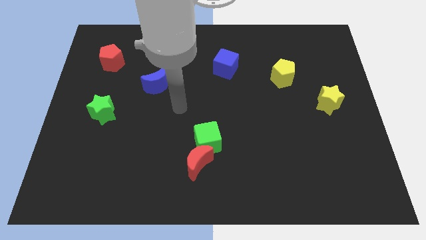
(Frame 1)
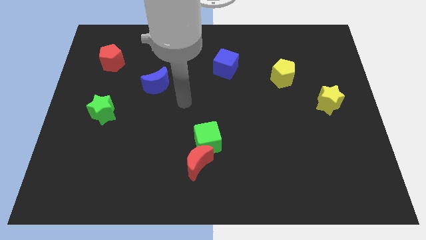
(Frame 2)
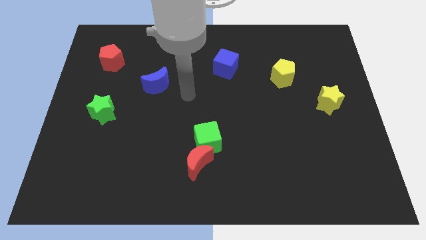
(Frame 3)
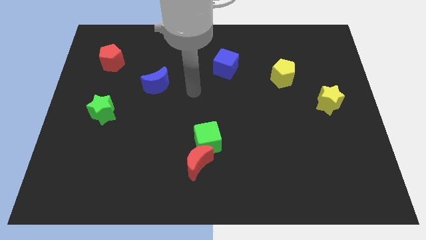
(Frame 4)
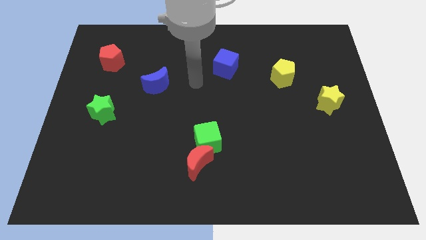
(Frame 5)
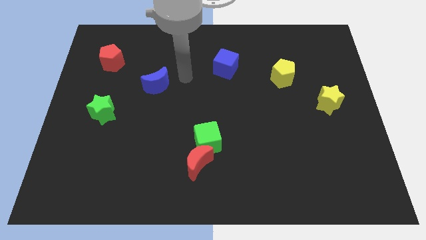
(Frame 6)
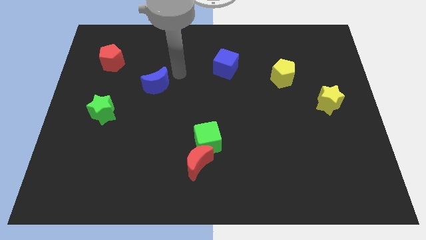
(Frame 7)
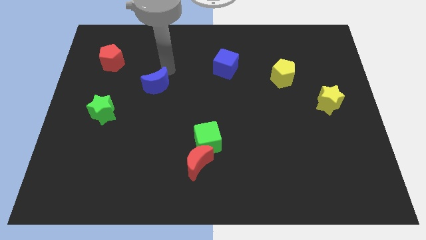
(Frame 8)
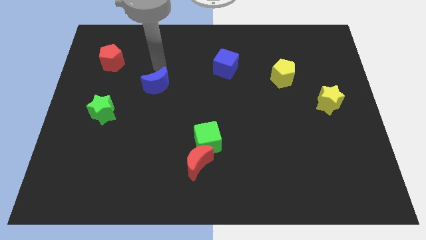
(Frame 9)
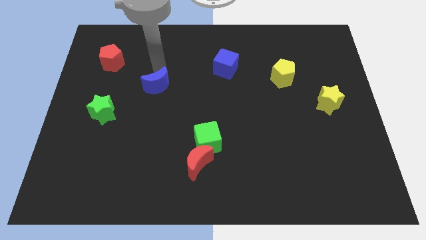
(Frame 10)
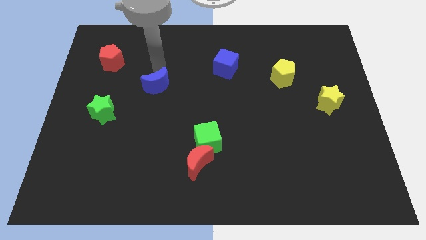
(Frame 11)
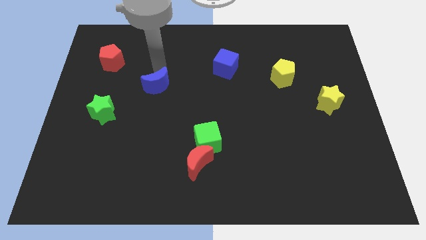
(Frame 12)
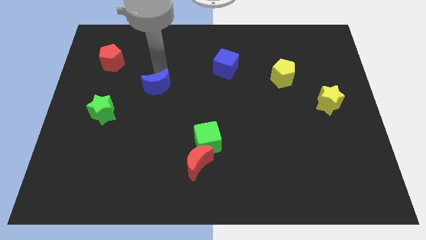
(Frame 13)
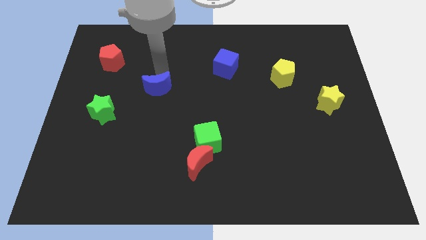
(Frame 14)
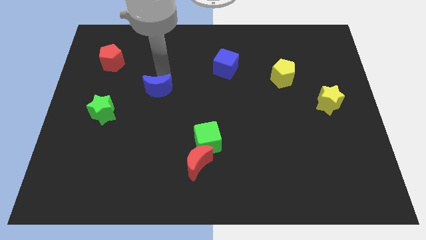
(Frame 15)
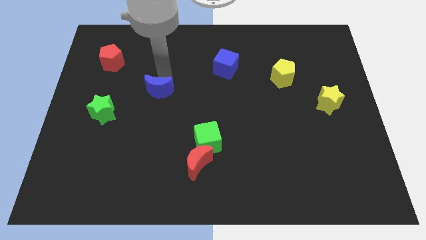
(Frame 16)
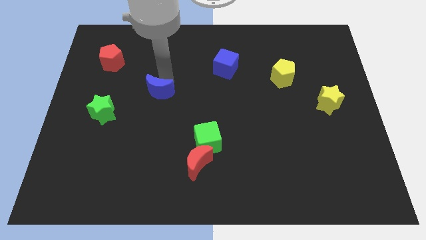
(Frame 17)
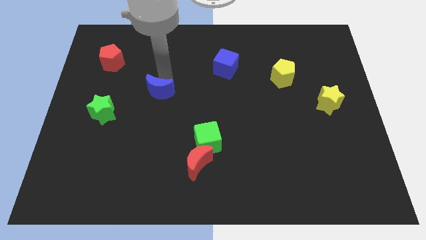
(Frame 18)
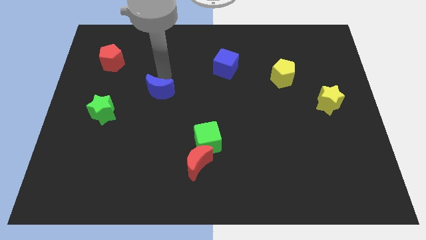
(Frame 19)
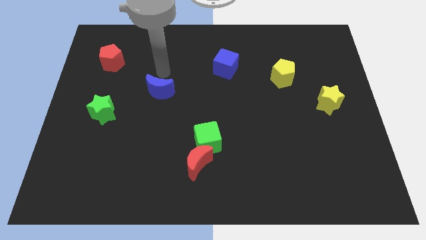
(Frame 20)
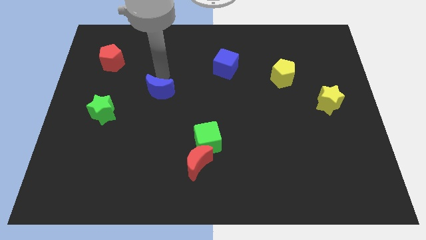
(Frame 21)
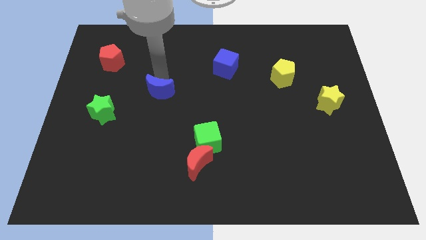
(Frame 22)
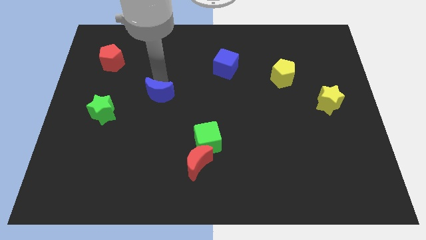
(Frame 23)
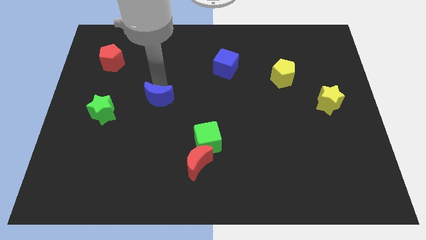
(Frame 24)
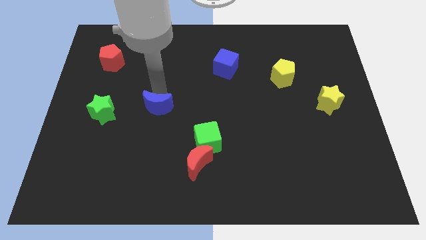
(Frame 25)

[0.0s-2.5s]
slightly move the blue moon down

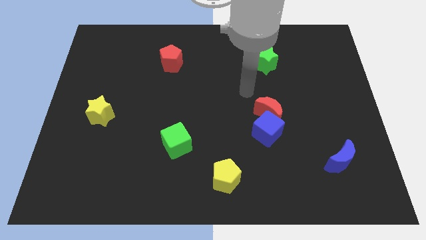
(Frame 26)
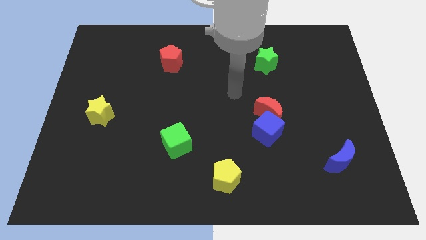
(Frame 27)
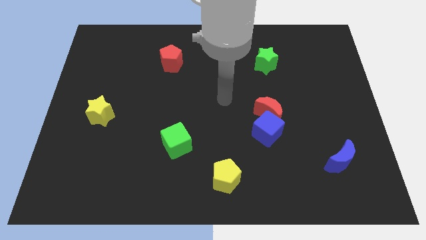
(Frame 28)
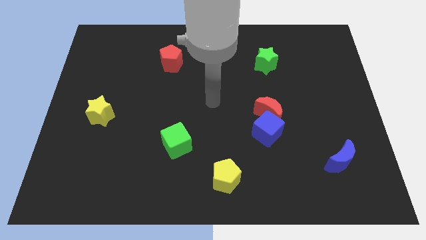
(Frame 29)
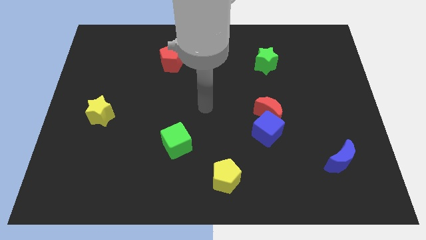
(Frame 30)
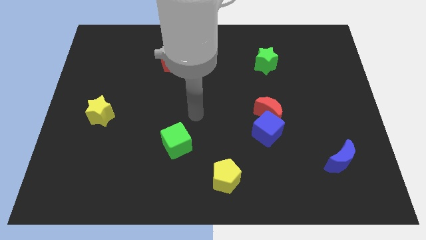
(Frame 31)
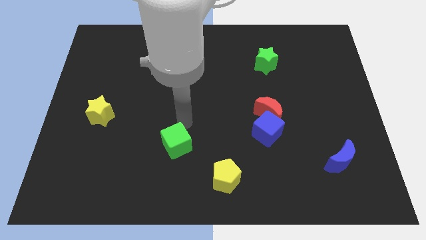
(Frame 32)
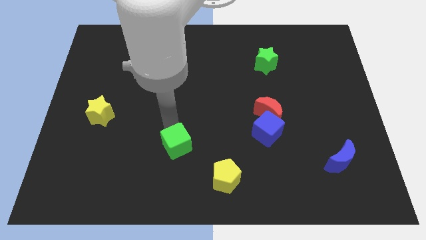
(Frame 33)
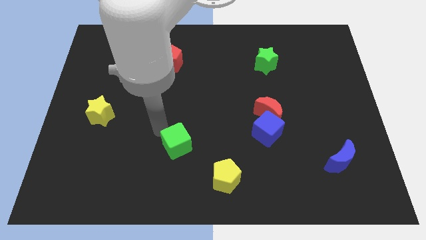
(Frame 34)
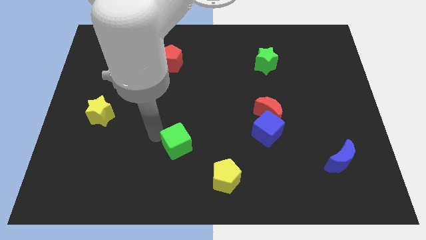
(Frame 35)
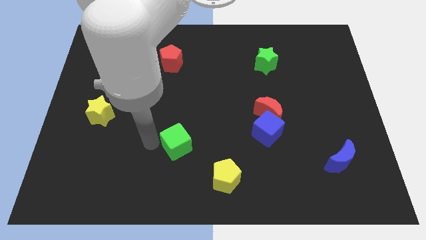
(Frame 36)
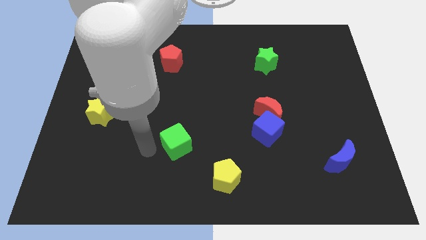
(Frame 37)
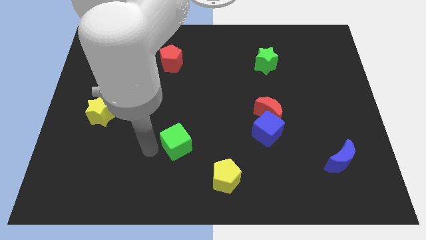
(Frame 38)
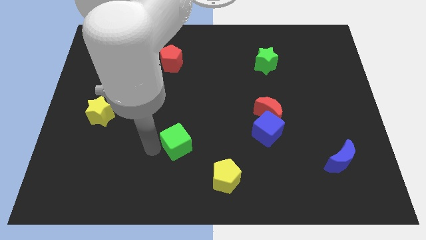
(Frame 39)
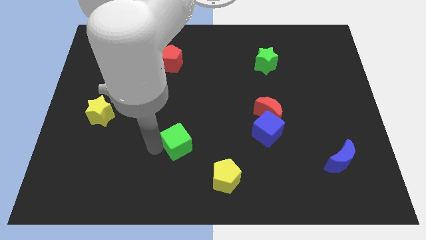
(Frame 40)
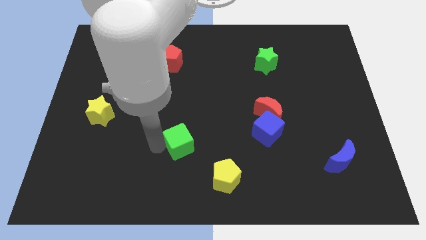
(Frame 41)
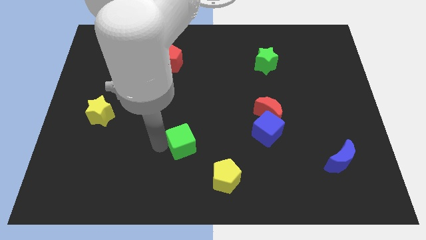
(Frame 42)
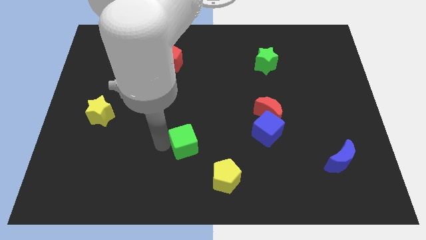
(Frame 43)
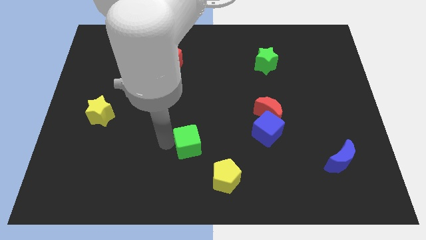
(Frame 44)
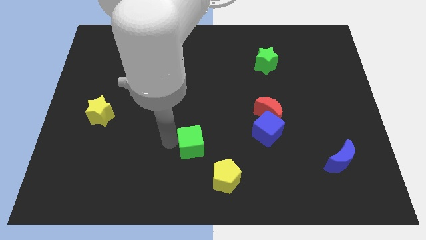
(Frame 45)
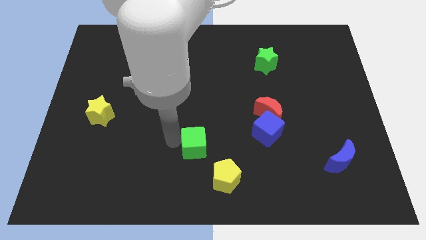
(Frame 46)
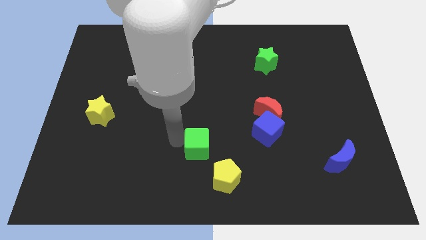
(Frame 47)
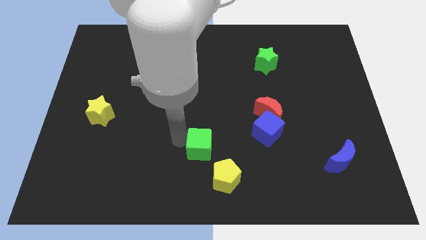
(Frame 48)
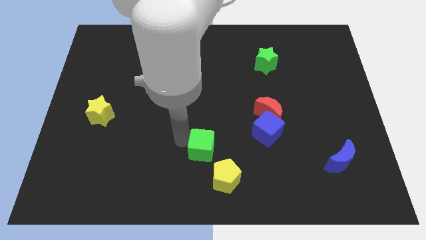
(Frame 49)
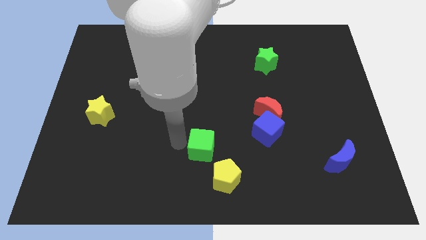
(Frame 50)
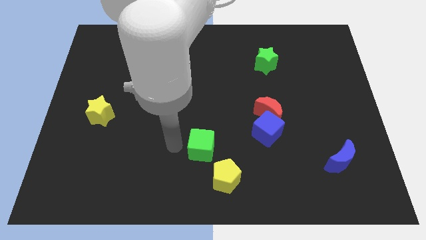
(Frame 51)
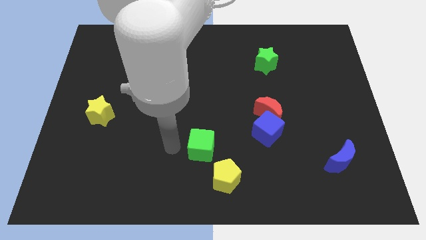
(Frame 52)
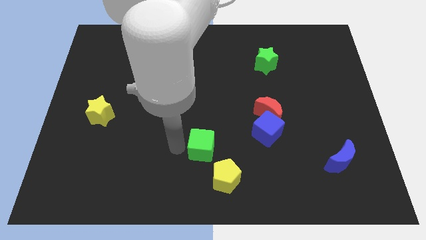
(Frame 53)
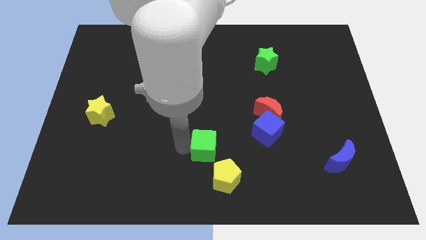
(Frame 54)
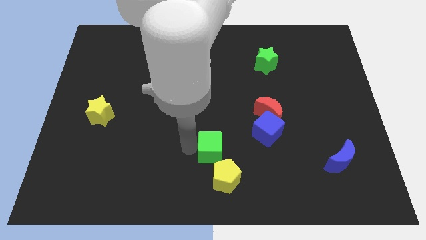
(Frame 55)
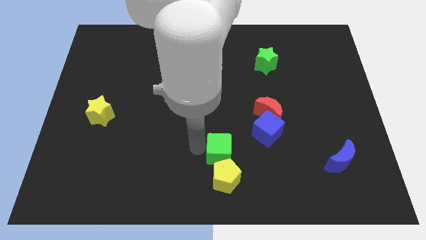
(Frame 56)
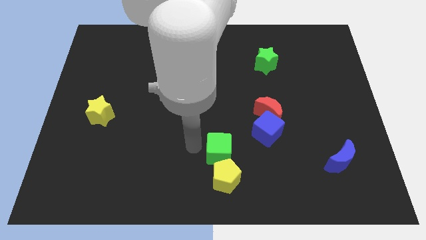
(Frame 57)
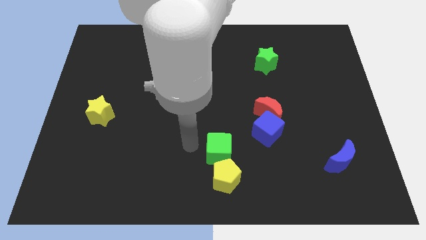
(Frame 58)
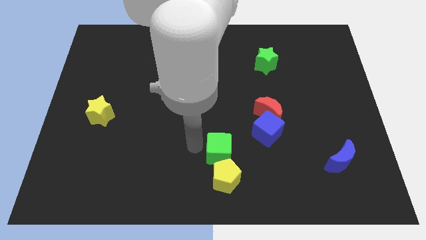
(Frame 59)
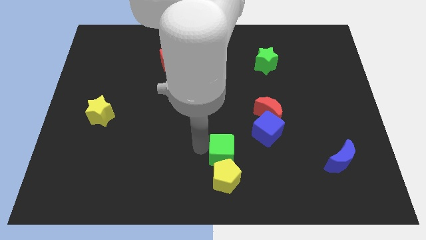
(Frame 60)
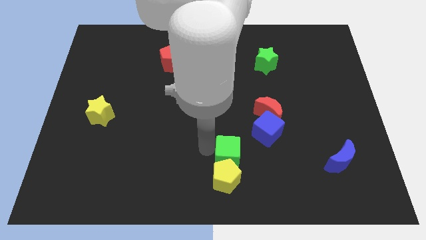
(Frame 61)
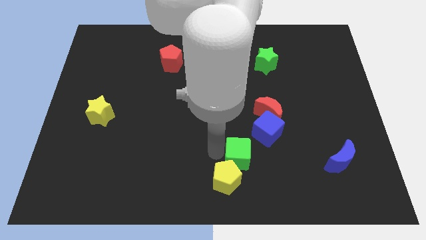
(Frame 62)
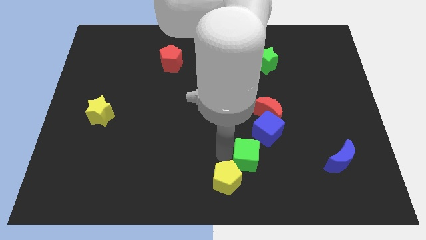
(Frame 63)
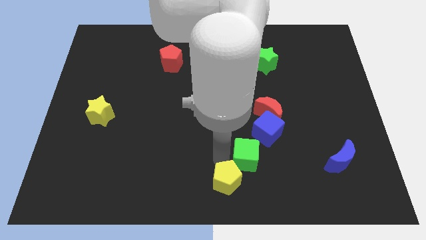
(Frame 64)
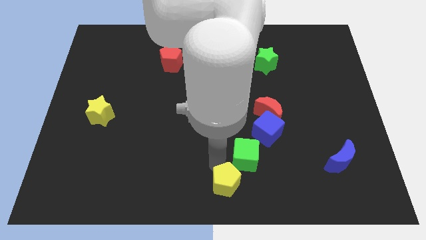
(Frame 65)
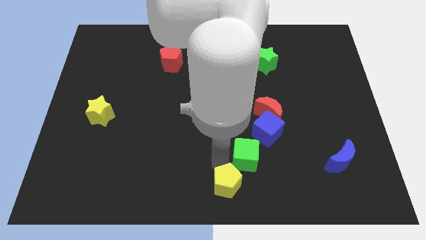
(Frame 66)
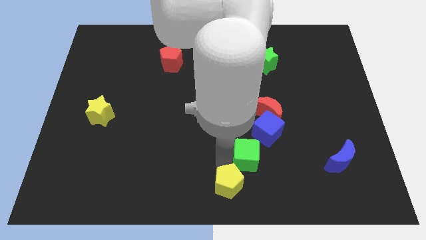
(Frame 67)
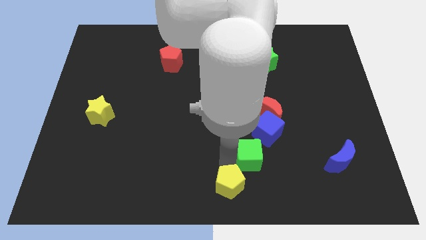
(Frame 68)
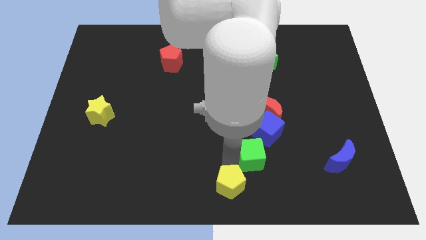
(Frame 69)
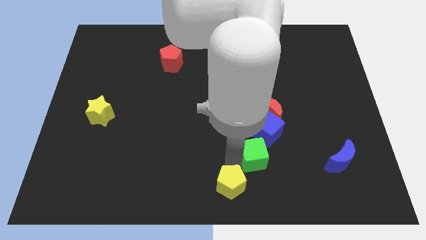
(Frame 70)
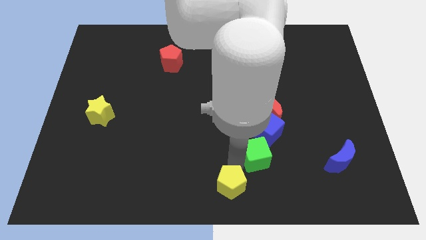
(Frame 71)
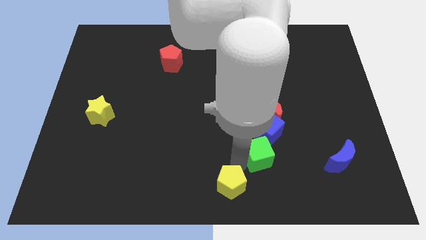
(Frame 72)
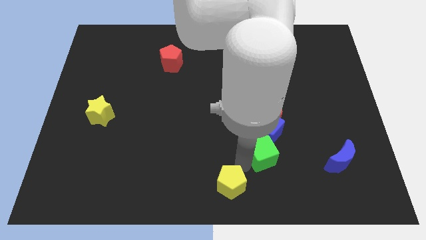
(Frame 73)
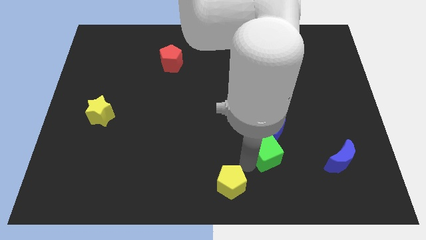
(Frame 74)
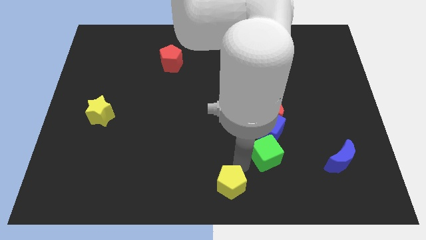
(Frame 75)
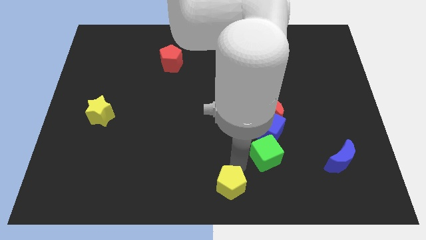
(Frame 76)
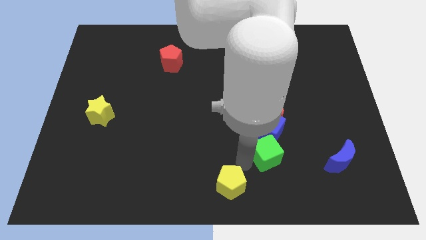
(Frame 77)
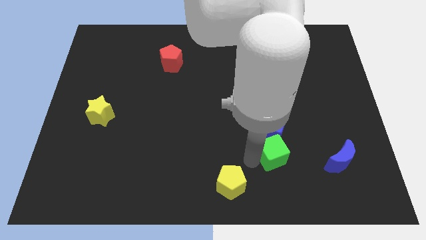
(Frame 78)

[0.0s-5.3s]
slide the green cube right

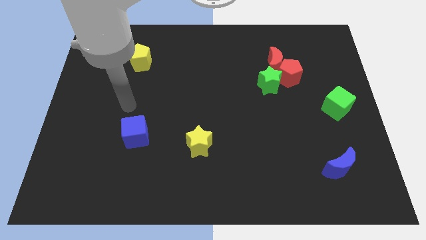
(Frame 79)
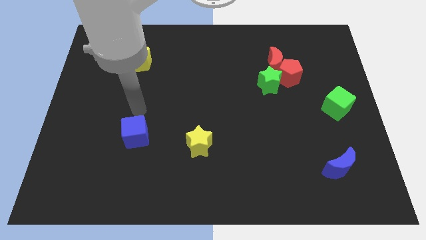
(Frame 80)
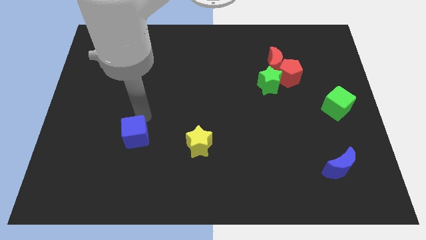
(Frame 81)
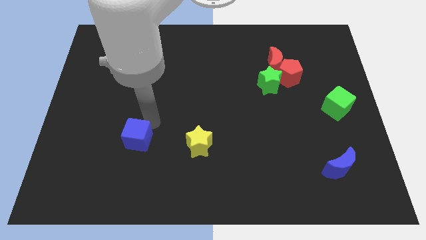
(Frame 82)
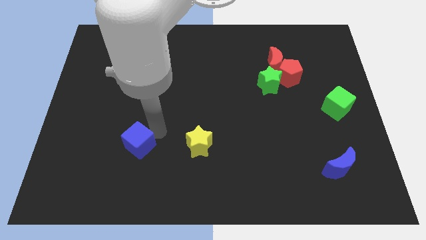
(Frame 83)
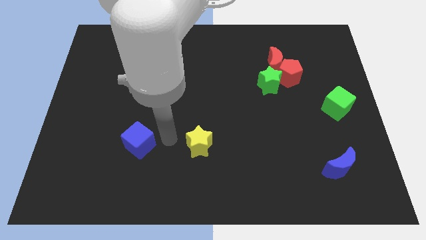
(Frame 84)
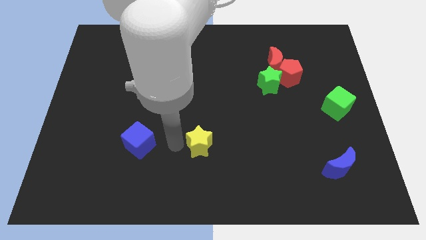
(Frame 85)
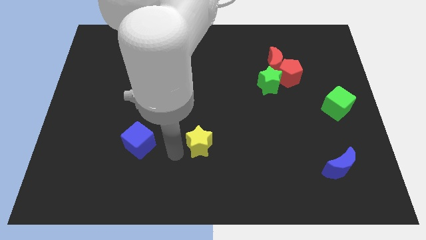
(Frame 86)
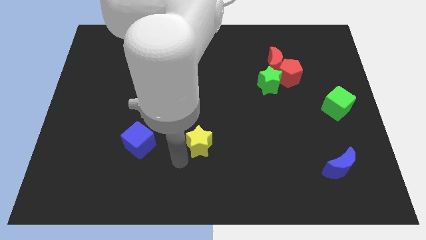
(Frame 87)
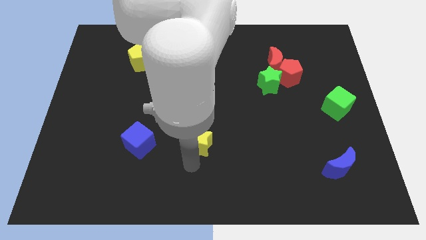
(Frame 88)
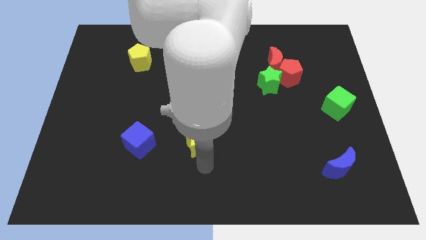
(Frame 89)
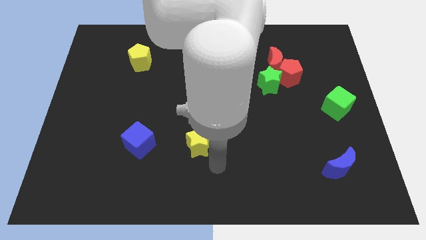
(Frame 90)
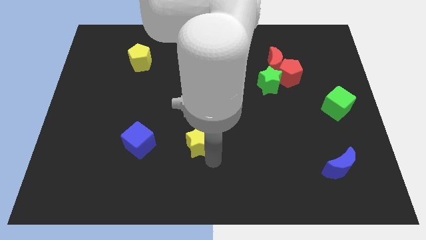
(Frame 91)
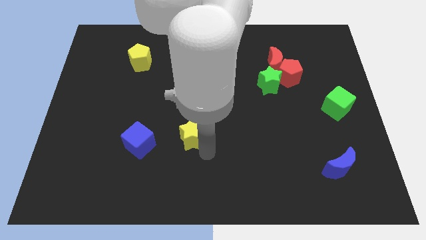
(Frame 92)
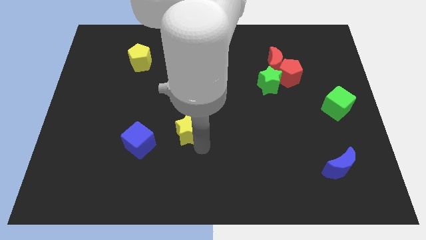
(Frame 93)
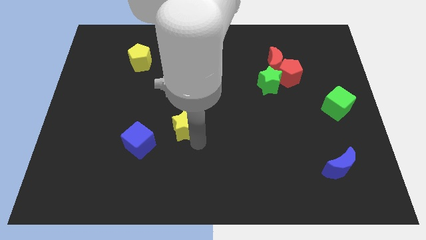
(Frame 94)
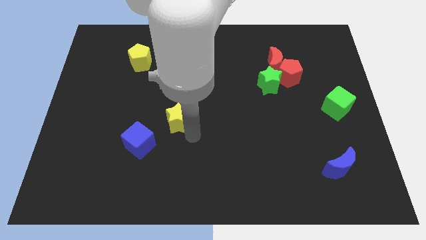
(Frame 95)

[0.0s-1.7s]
slightly push the yellow star upwards and left diagonally
